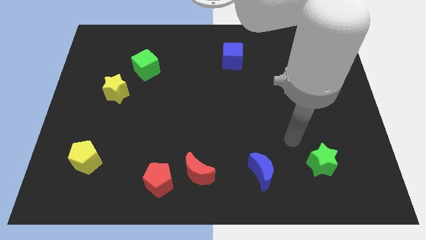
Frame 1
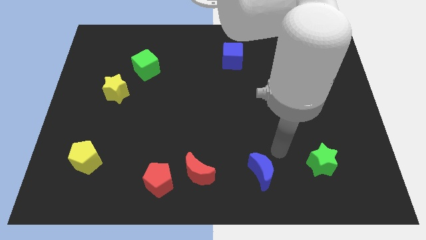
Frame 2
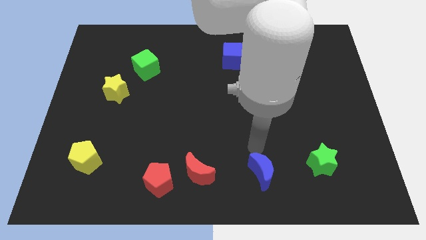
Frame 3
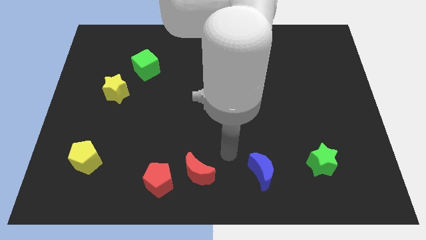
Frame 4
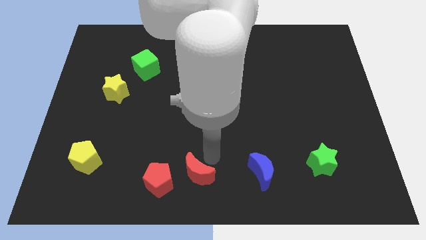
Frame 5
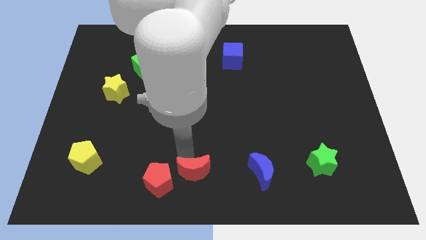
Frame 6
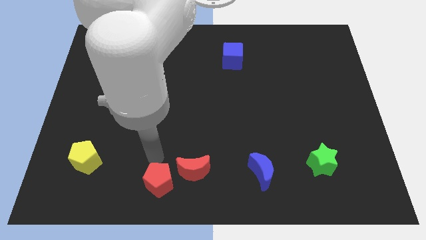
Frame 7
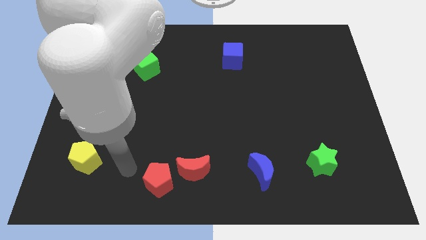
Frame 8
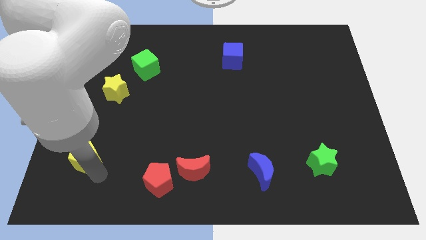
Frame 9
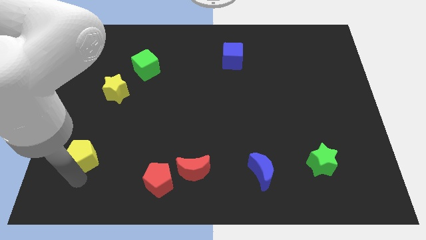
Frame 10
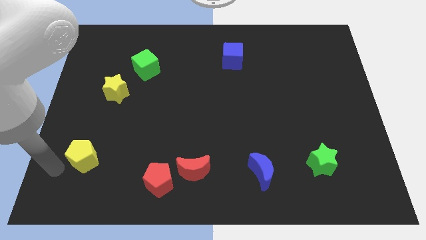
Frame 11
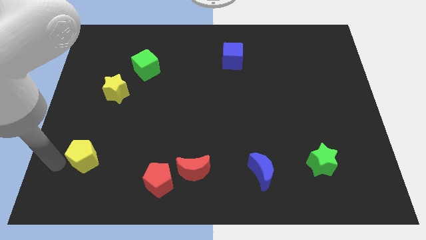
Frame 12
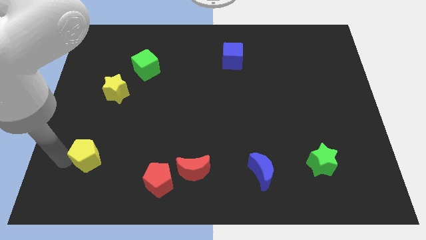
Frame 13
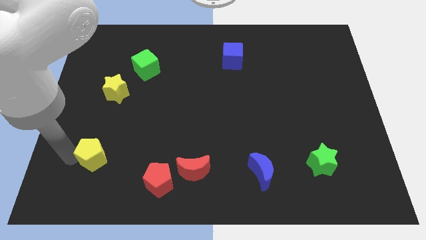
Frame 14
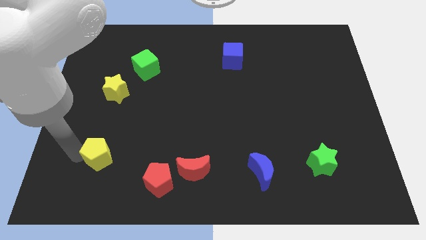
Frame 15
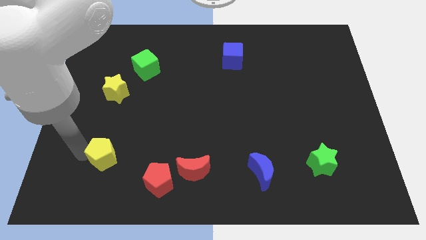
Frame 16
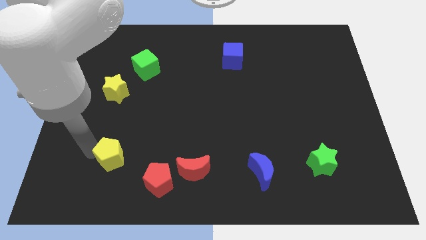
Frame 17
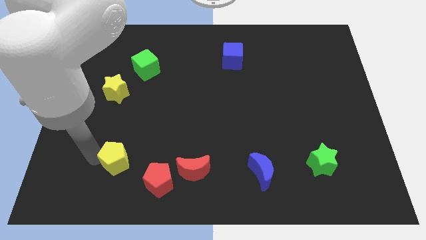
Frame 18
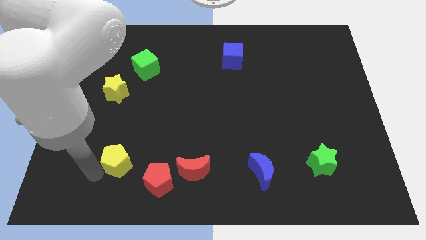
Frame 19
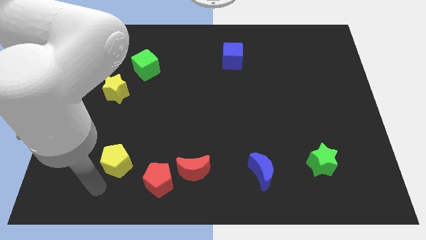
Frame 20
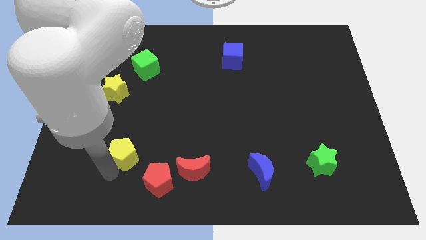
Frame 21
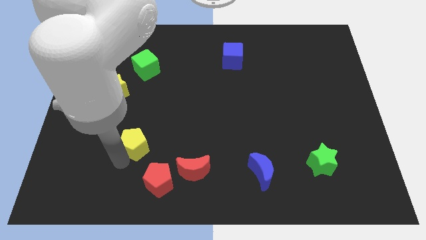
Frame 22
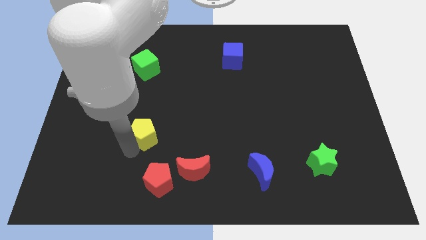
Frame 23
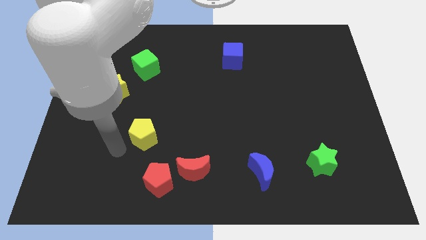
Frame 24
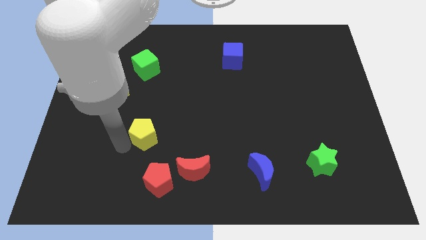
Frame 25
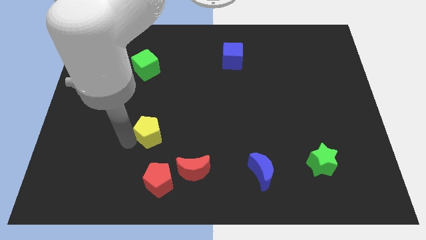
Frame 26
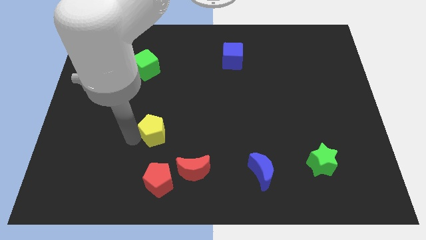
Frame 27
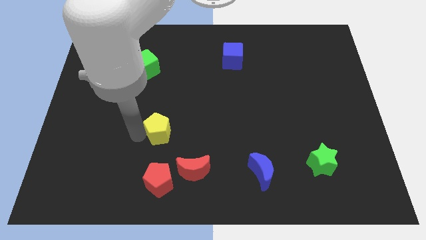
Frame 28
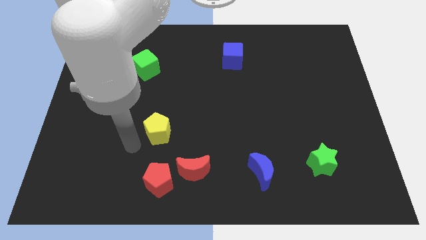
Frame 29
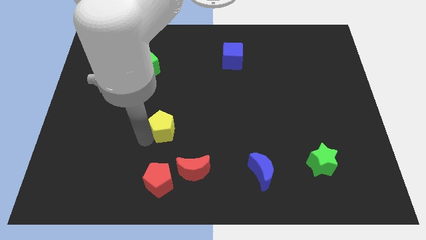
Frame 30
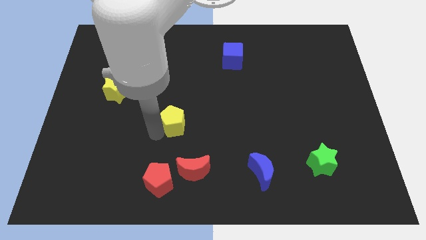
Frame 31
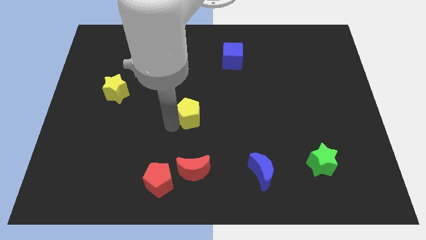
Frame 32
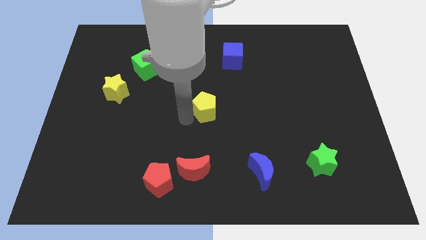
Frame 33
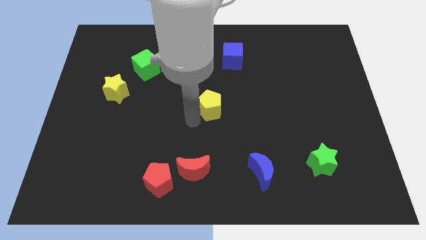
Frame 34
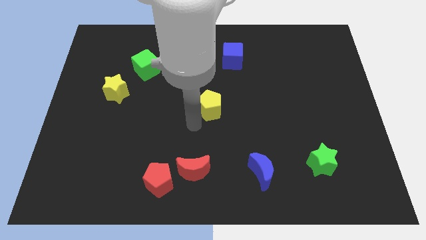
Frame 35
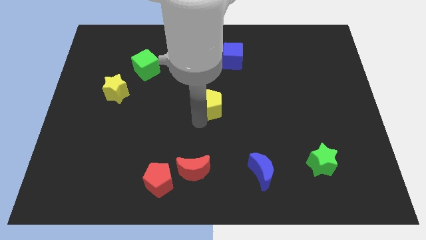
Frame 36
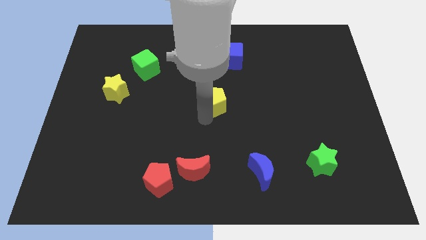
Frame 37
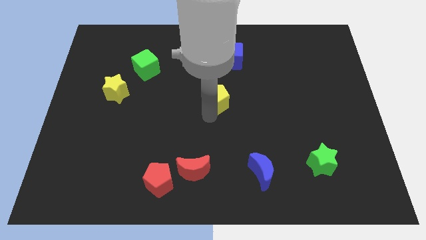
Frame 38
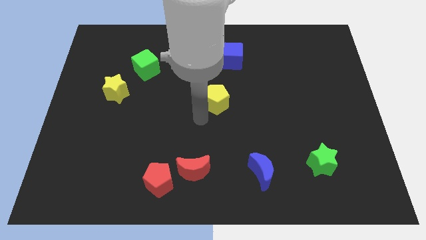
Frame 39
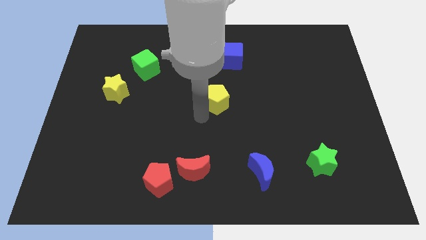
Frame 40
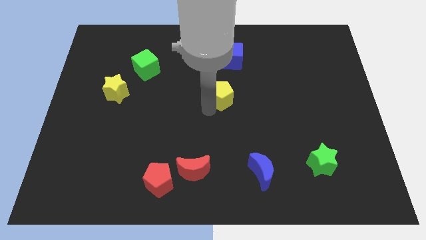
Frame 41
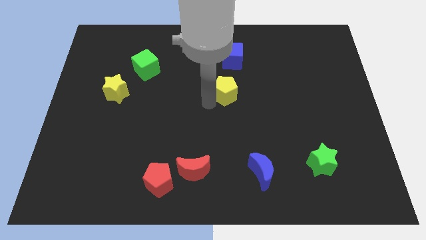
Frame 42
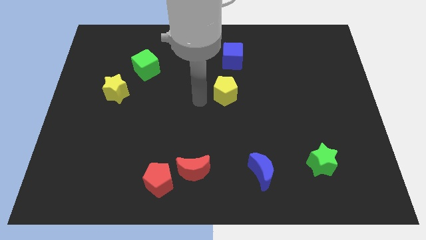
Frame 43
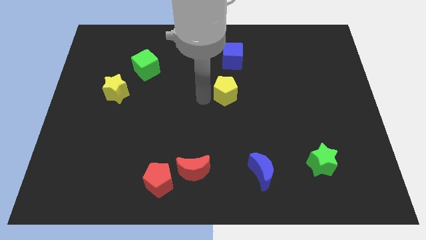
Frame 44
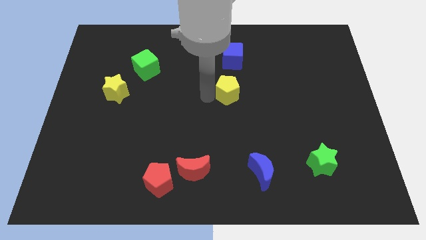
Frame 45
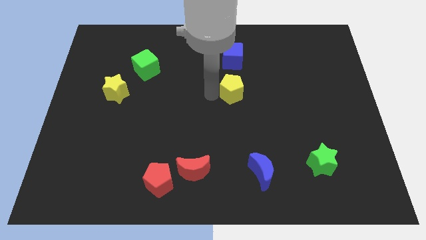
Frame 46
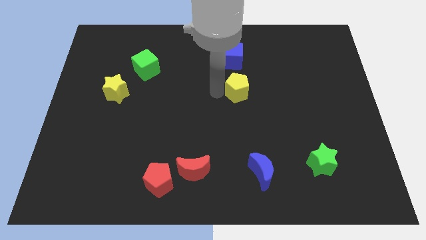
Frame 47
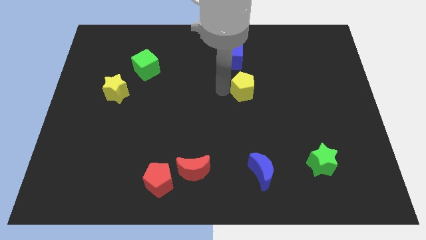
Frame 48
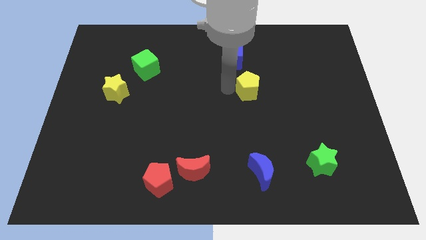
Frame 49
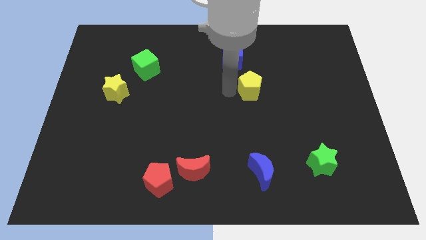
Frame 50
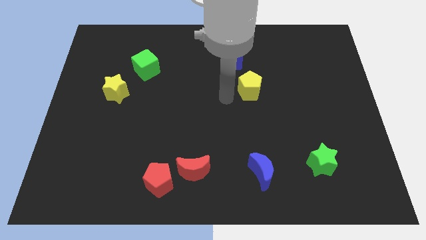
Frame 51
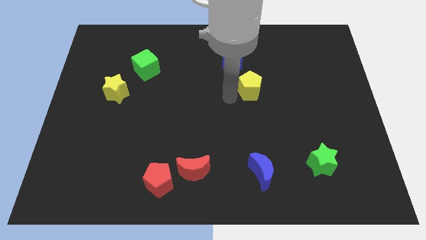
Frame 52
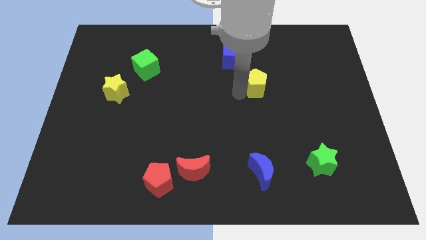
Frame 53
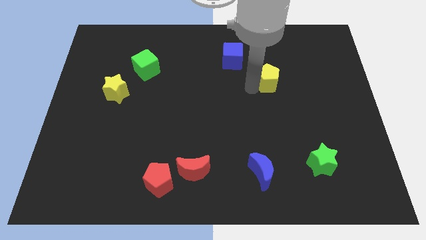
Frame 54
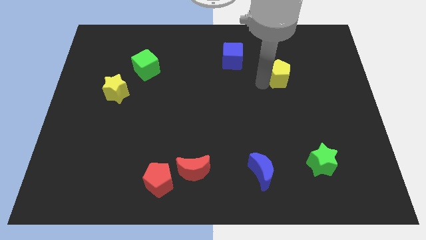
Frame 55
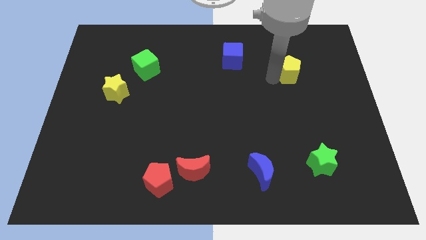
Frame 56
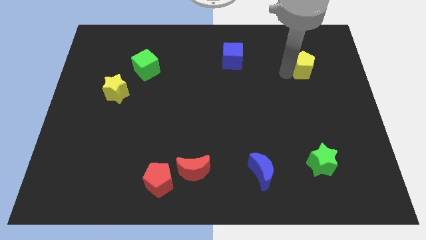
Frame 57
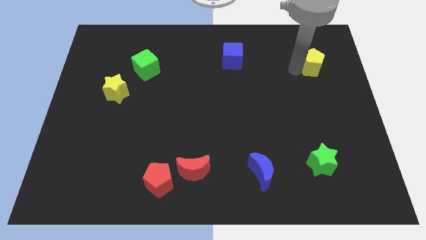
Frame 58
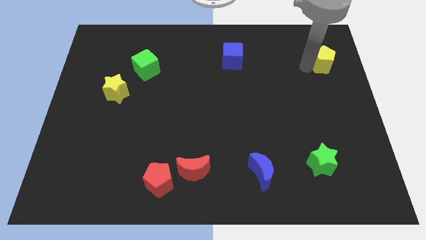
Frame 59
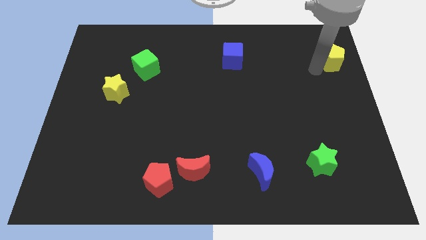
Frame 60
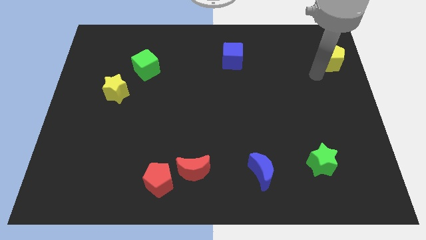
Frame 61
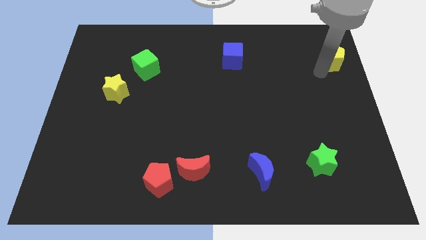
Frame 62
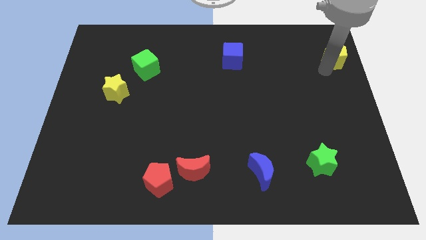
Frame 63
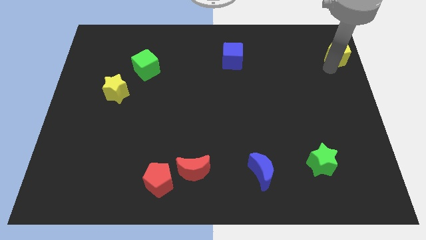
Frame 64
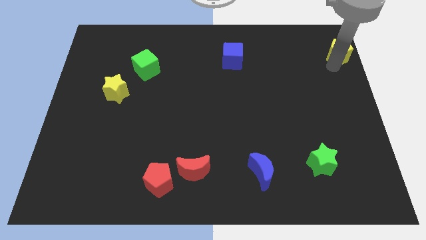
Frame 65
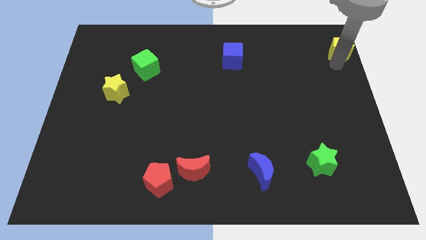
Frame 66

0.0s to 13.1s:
put the yellow pentagon to the top right of the board

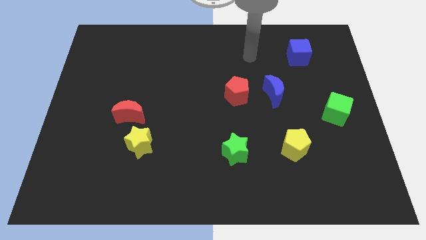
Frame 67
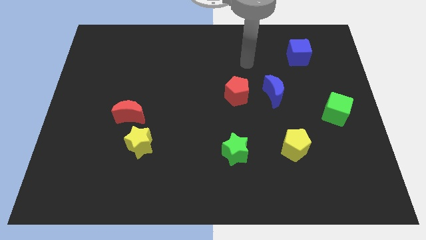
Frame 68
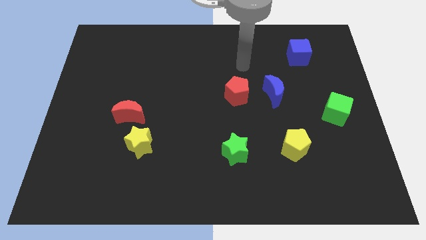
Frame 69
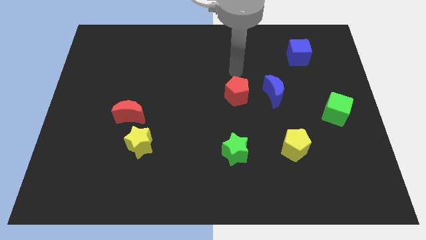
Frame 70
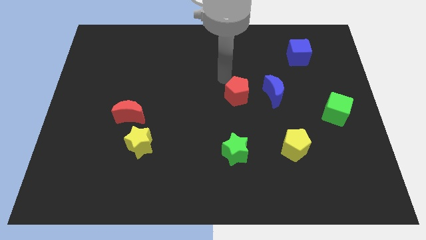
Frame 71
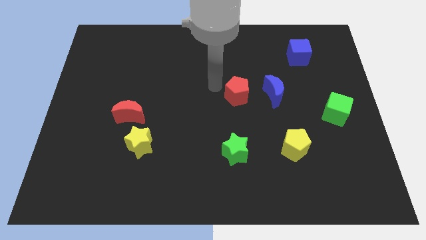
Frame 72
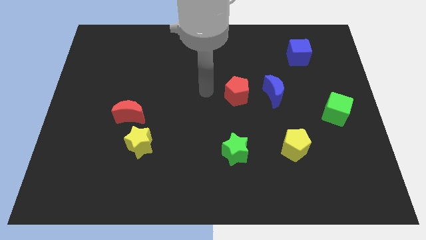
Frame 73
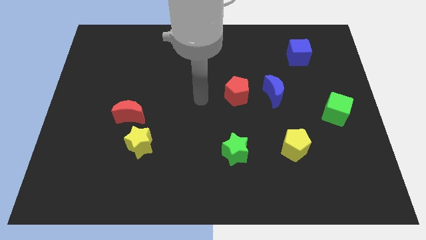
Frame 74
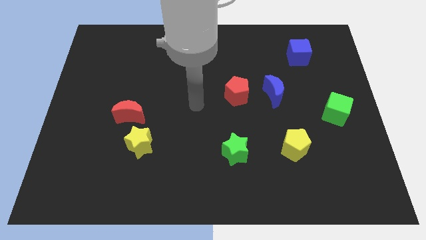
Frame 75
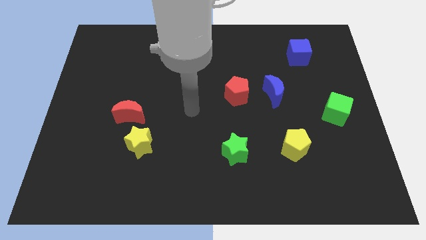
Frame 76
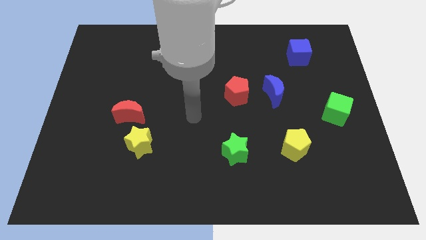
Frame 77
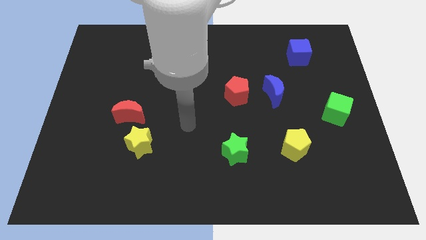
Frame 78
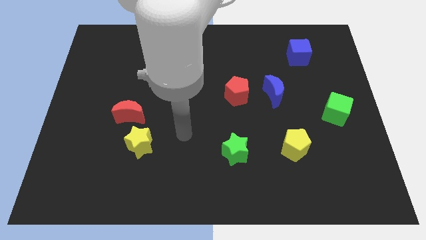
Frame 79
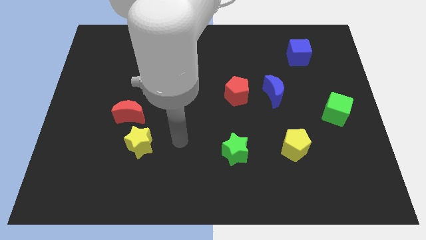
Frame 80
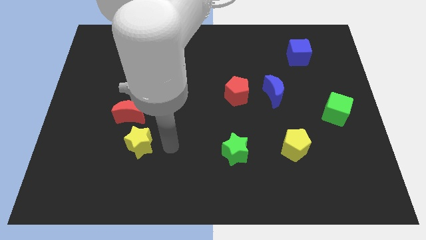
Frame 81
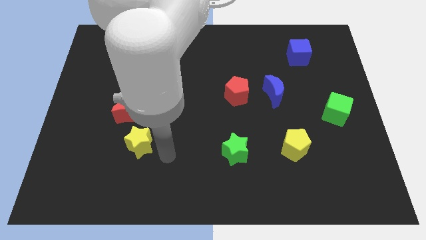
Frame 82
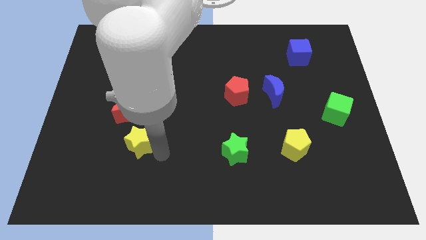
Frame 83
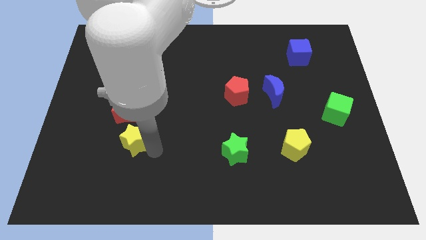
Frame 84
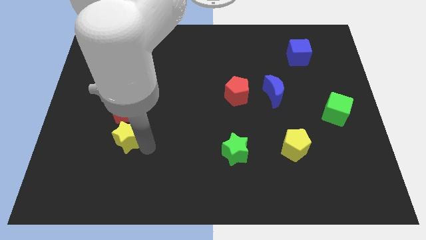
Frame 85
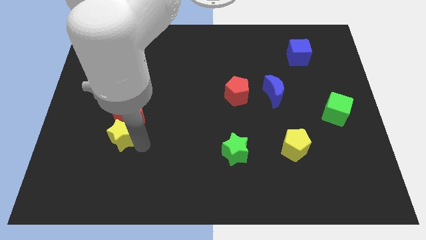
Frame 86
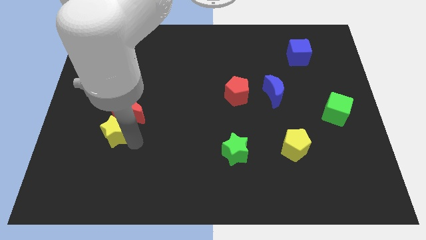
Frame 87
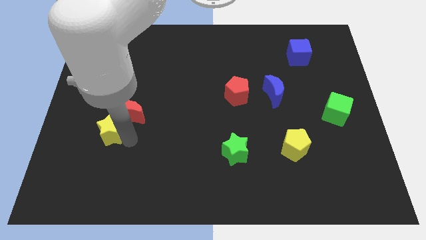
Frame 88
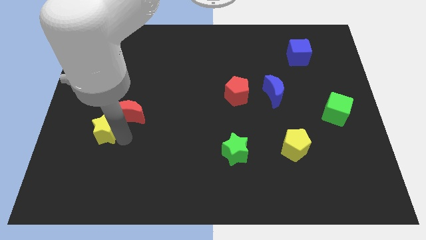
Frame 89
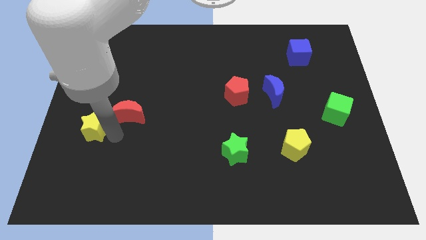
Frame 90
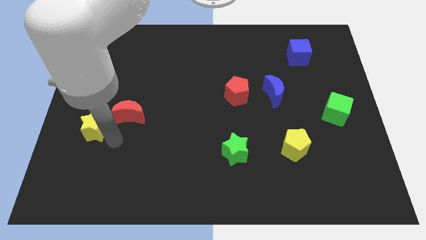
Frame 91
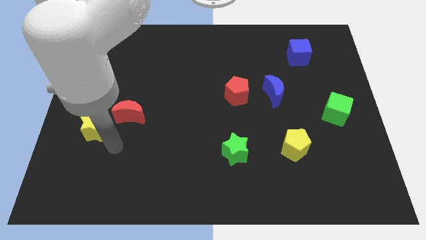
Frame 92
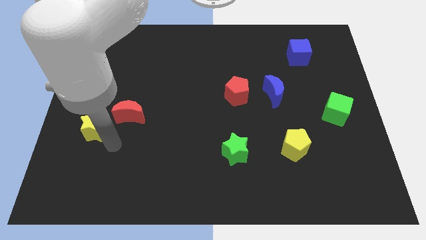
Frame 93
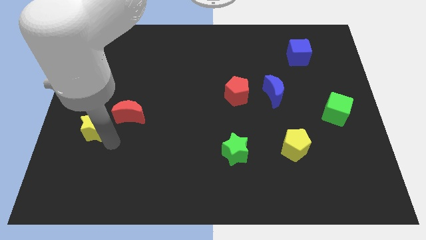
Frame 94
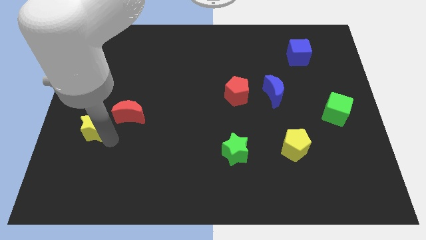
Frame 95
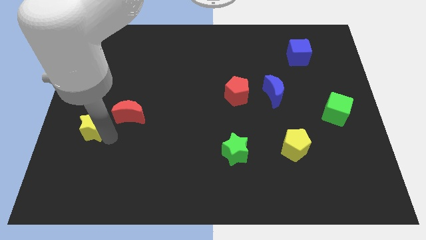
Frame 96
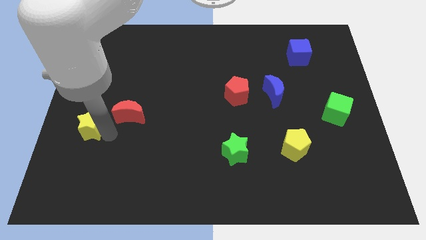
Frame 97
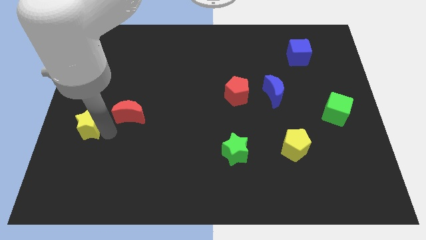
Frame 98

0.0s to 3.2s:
slide the yellow star to the center left
